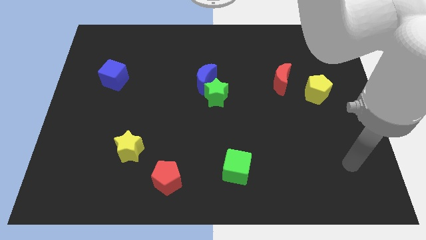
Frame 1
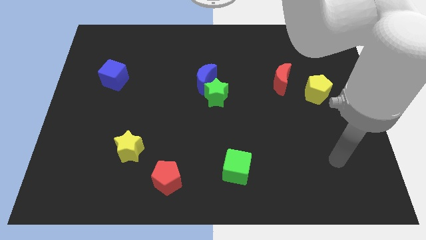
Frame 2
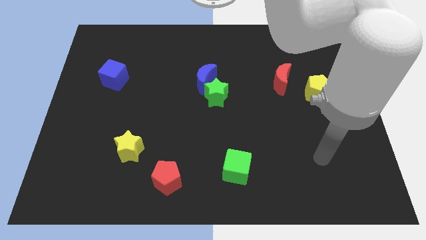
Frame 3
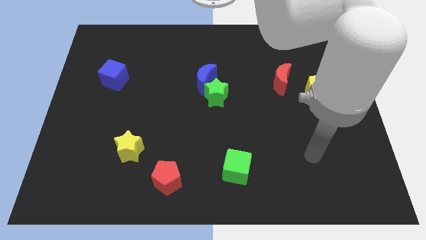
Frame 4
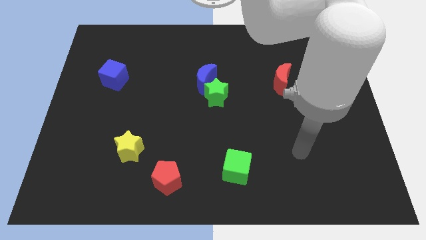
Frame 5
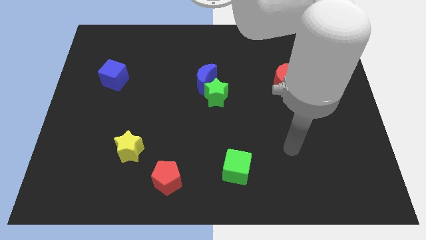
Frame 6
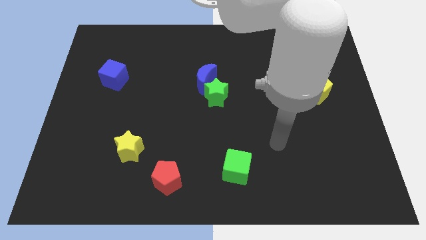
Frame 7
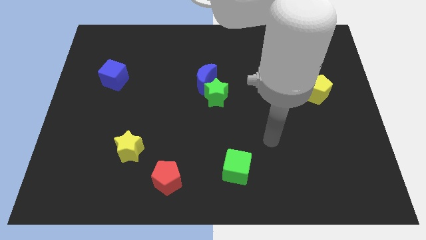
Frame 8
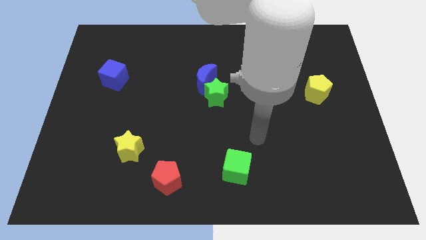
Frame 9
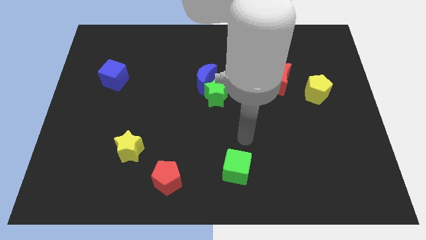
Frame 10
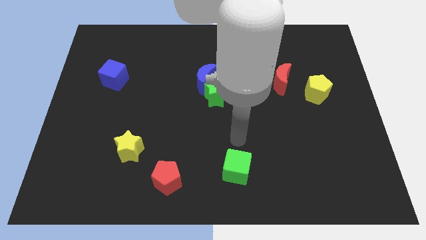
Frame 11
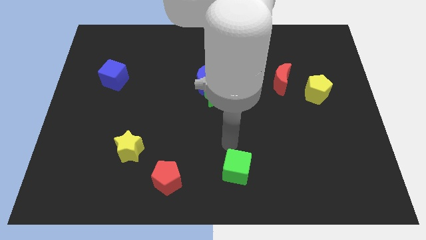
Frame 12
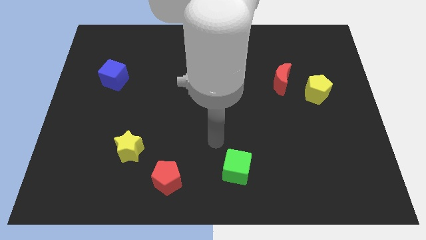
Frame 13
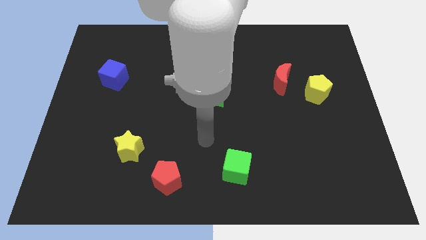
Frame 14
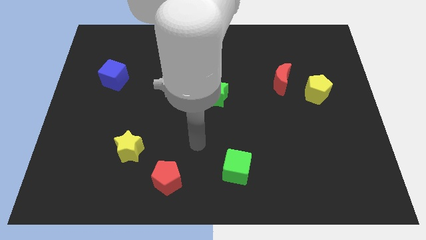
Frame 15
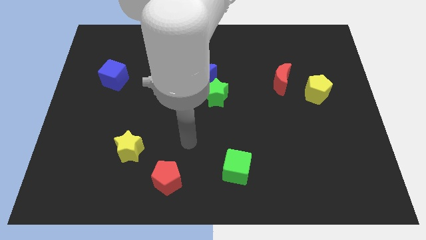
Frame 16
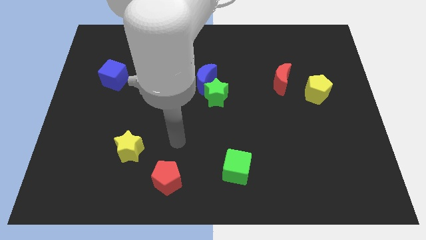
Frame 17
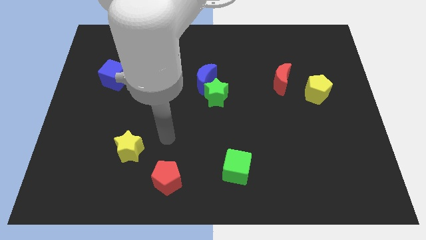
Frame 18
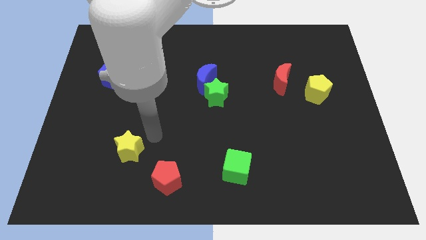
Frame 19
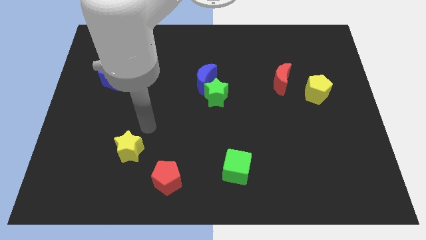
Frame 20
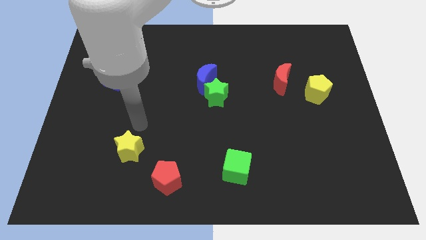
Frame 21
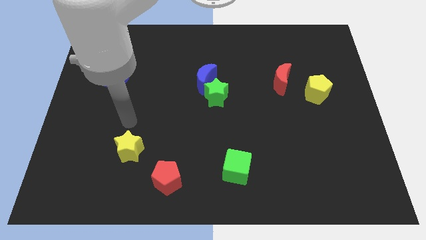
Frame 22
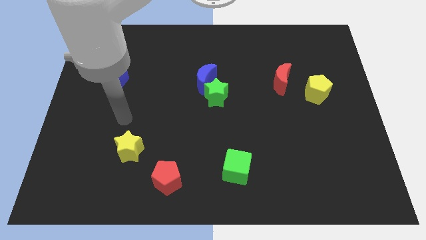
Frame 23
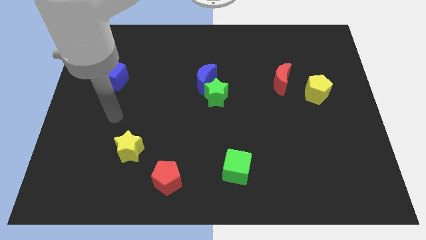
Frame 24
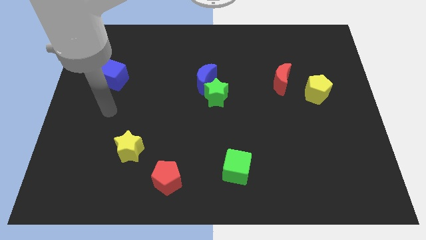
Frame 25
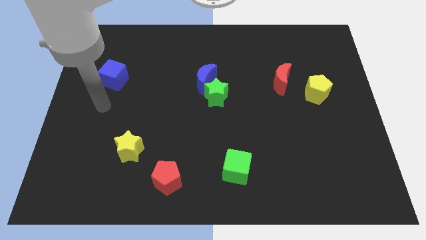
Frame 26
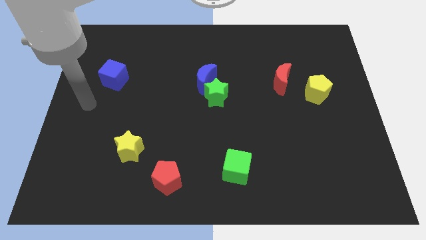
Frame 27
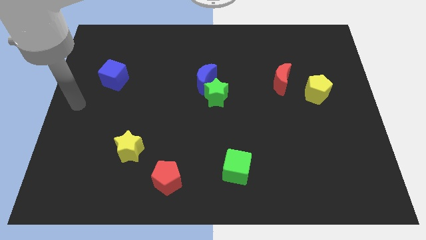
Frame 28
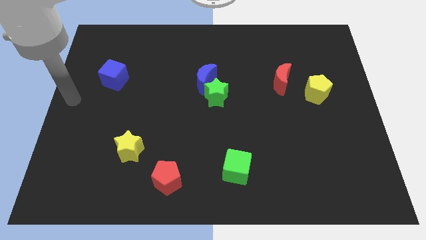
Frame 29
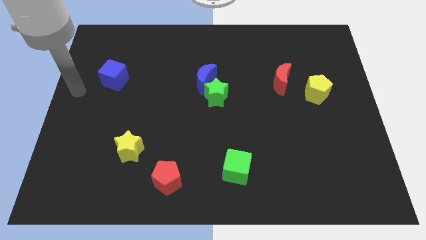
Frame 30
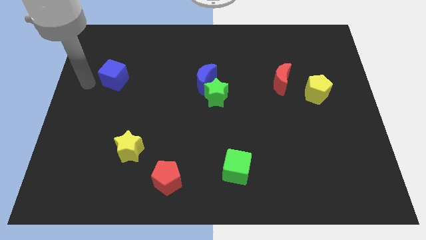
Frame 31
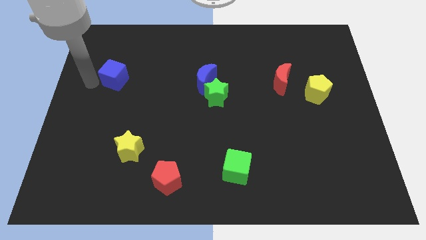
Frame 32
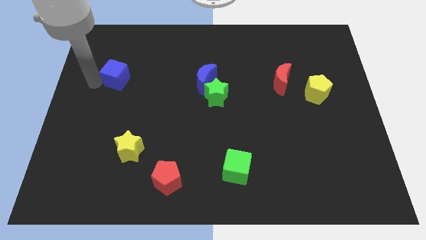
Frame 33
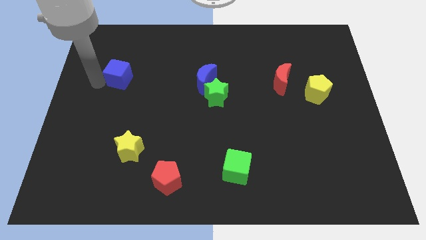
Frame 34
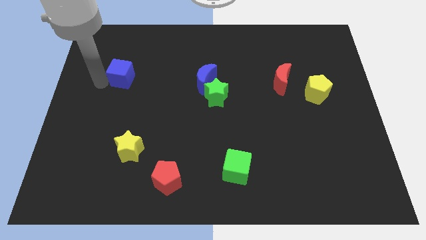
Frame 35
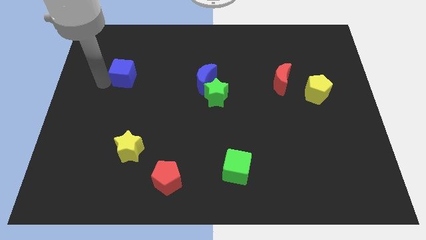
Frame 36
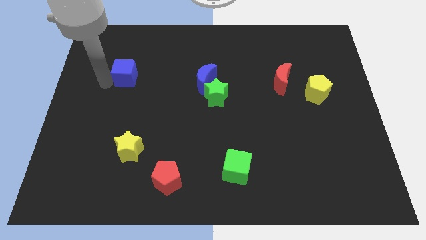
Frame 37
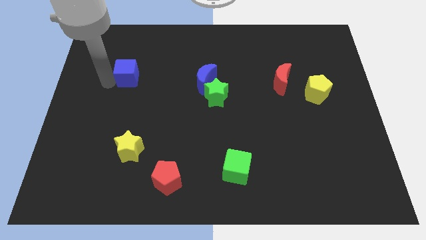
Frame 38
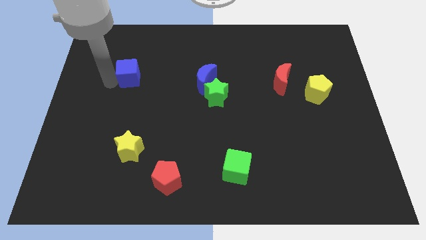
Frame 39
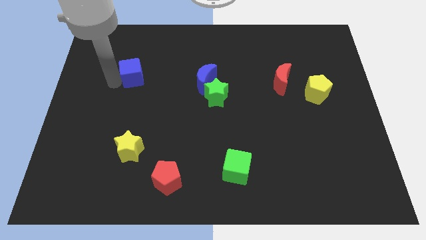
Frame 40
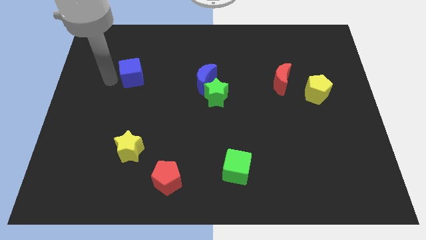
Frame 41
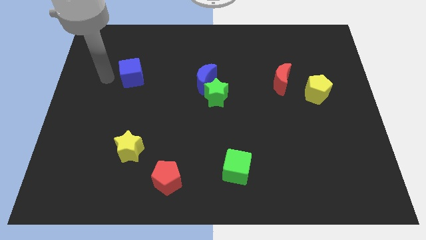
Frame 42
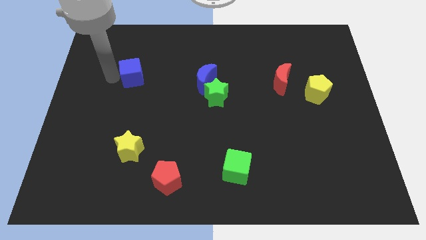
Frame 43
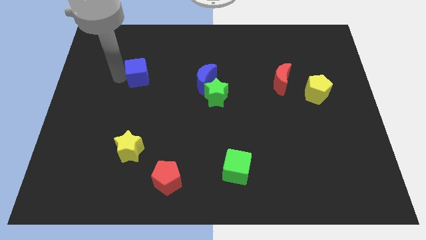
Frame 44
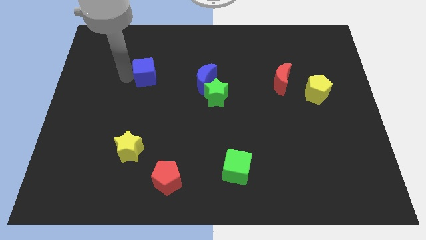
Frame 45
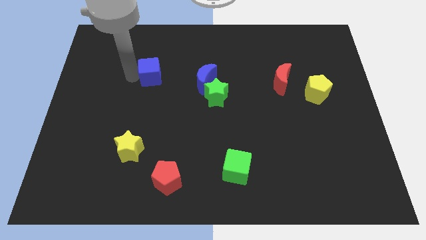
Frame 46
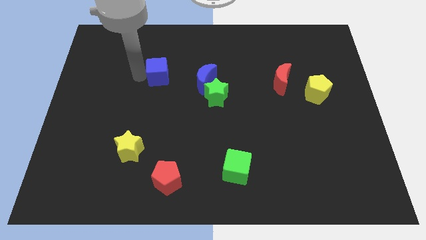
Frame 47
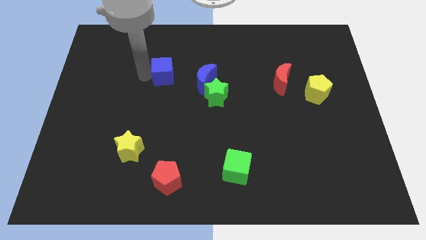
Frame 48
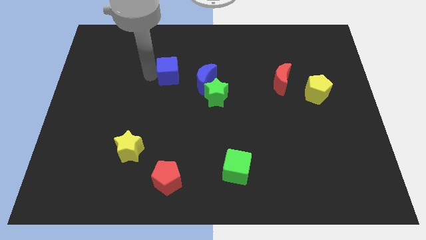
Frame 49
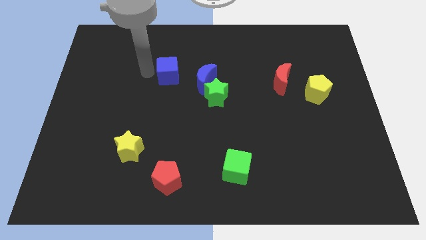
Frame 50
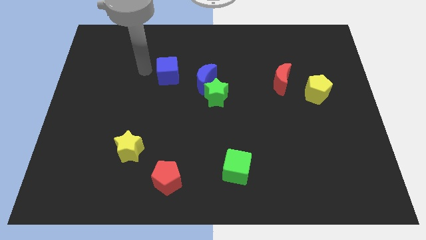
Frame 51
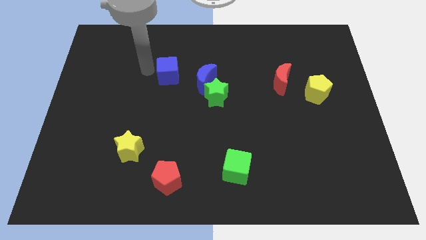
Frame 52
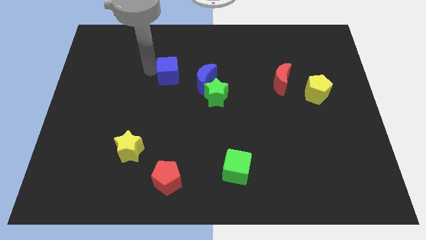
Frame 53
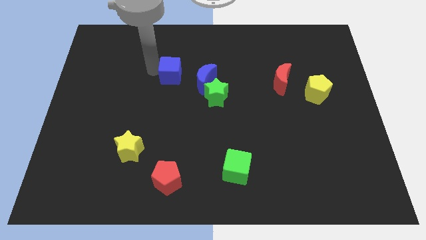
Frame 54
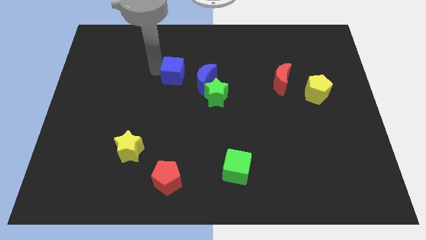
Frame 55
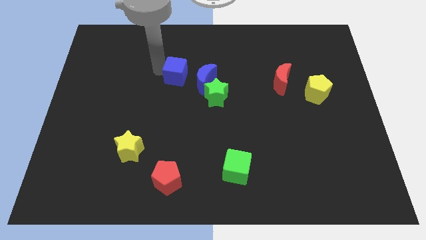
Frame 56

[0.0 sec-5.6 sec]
push the blue cube to the top left side of the green star

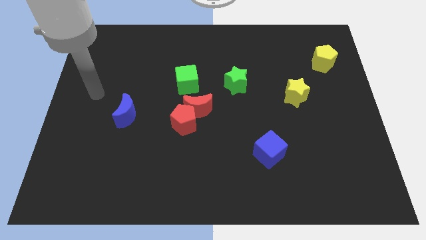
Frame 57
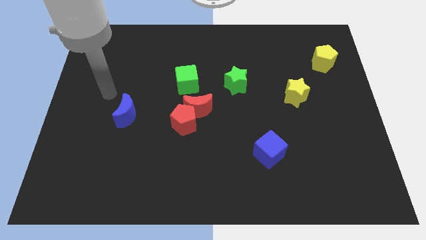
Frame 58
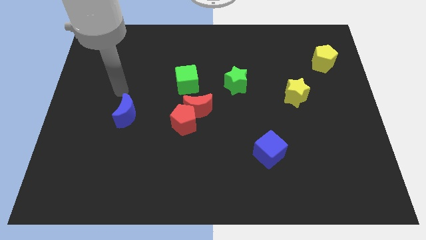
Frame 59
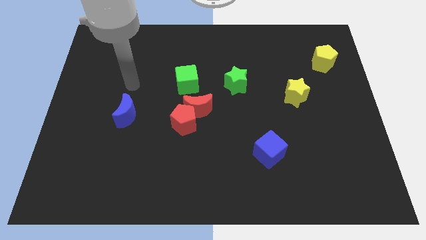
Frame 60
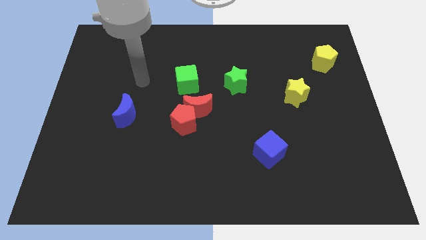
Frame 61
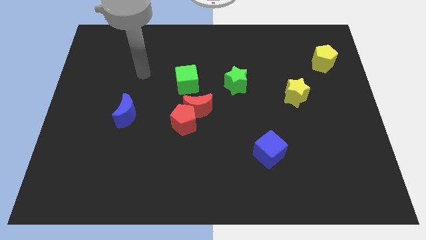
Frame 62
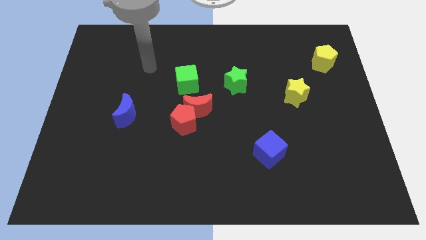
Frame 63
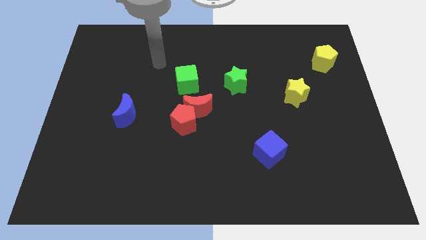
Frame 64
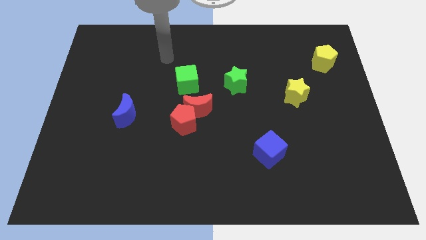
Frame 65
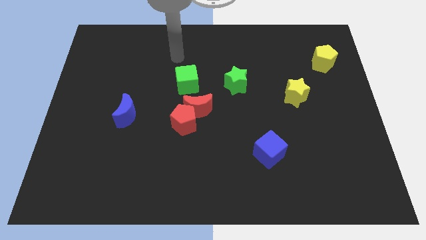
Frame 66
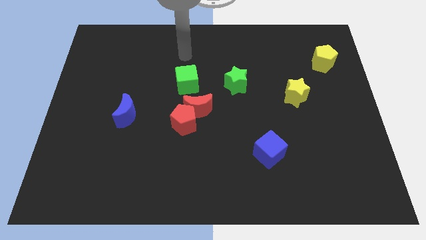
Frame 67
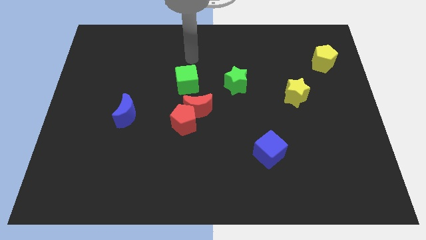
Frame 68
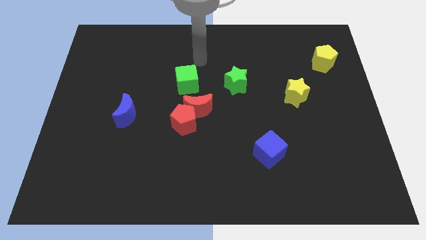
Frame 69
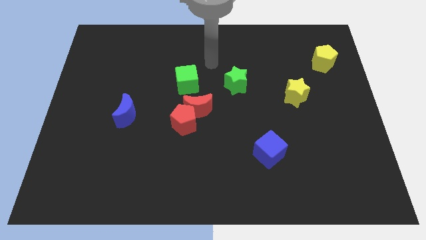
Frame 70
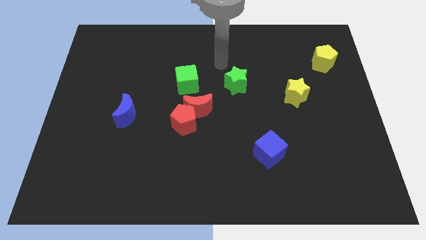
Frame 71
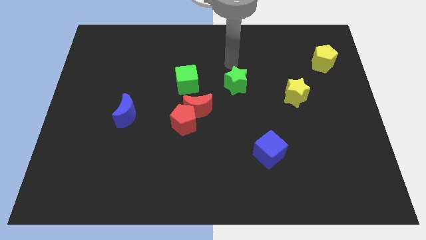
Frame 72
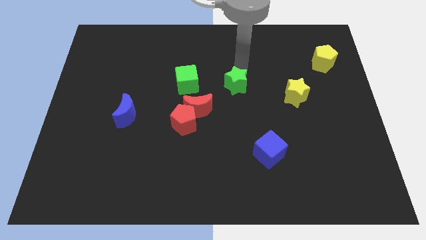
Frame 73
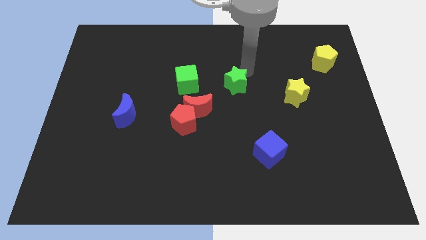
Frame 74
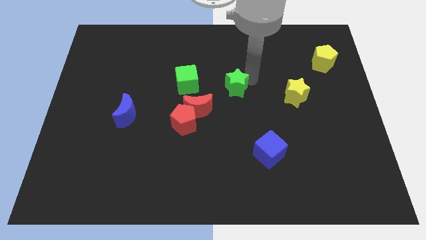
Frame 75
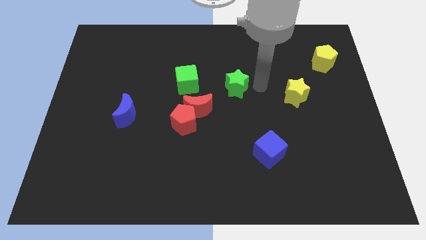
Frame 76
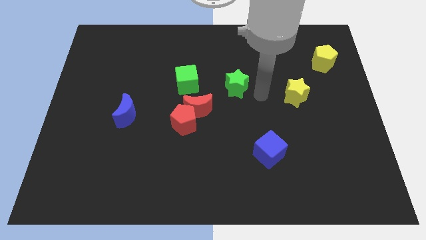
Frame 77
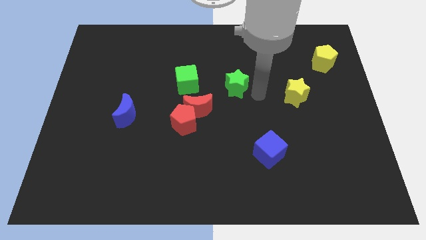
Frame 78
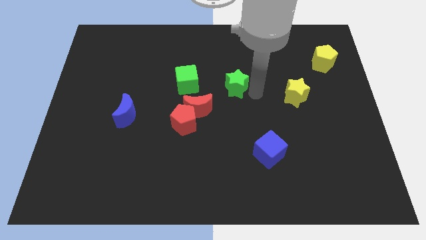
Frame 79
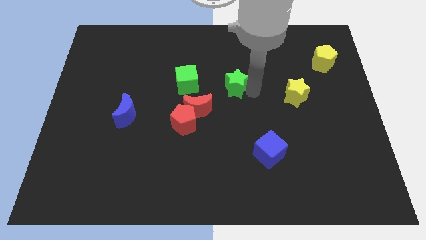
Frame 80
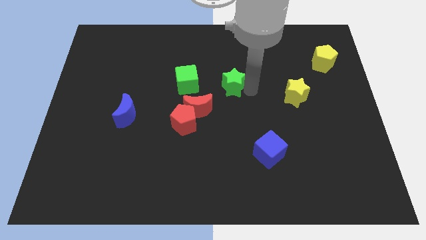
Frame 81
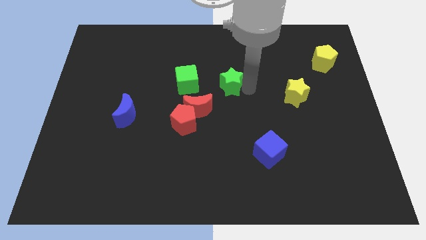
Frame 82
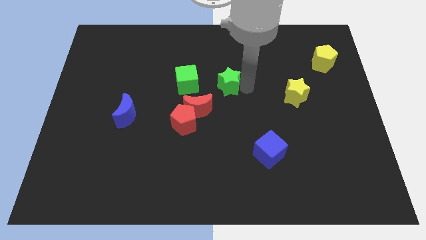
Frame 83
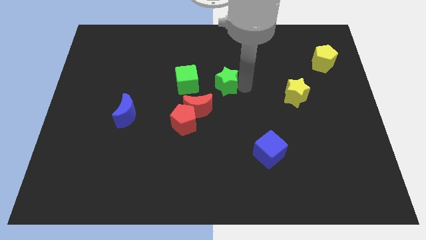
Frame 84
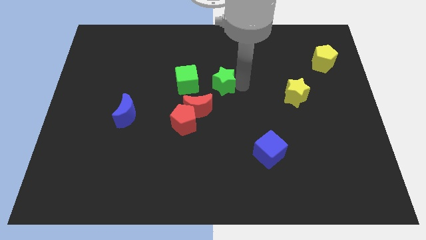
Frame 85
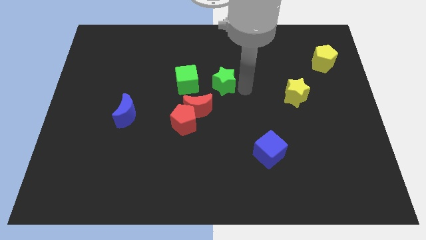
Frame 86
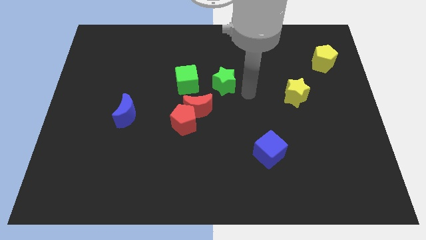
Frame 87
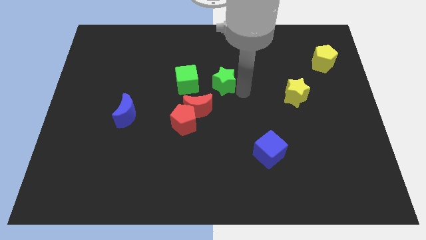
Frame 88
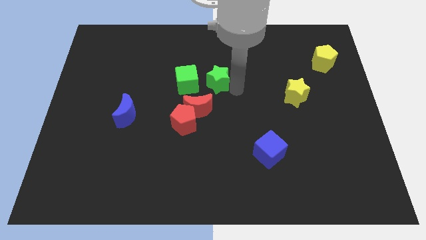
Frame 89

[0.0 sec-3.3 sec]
push the green star above the red moon
